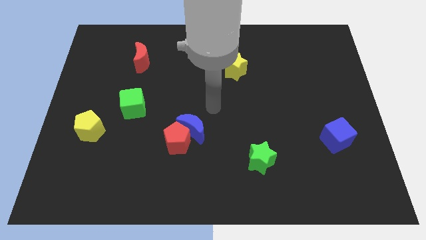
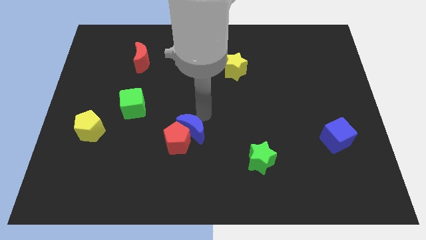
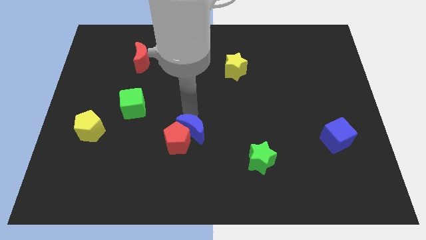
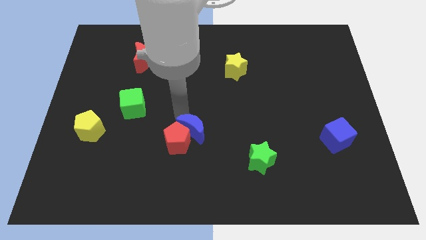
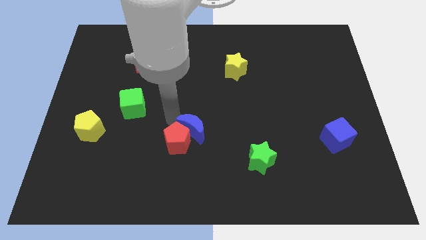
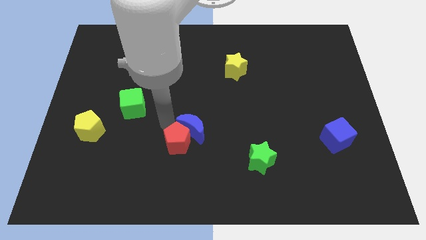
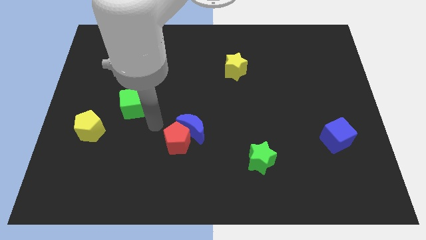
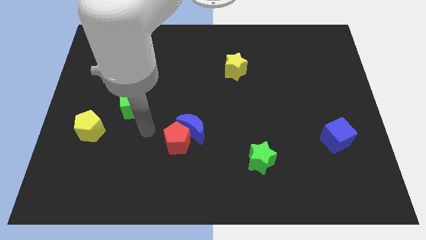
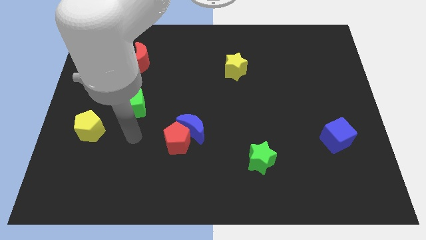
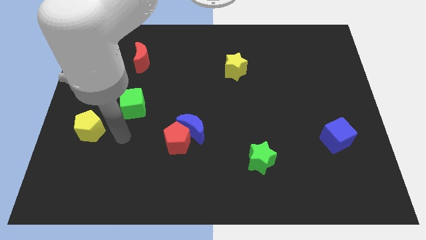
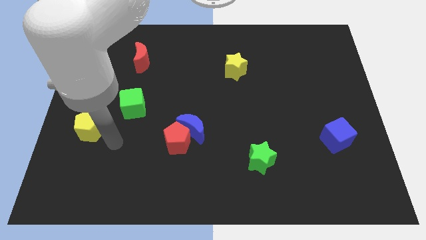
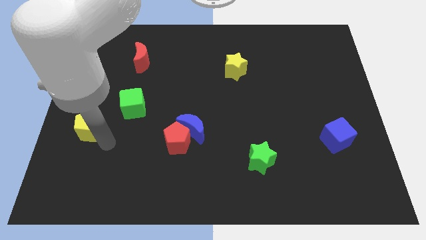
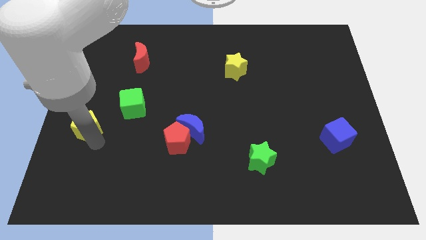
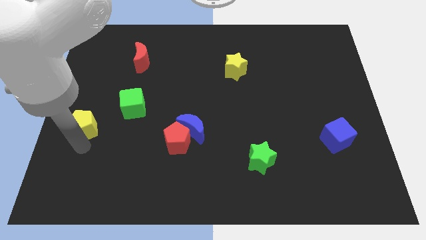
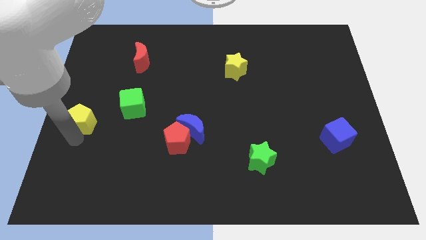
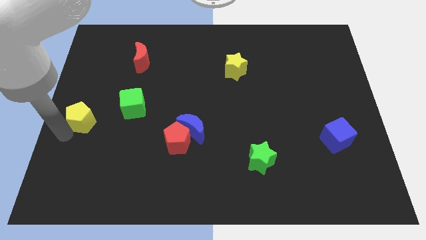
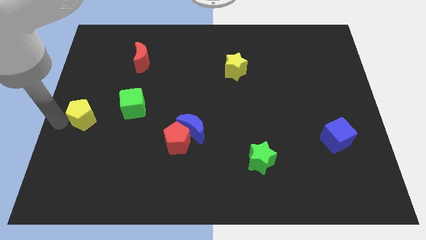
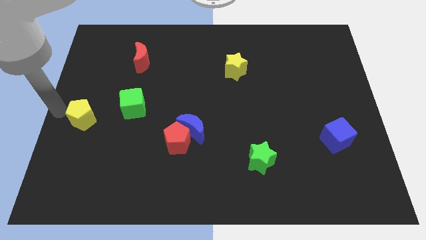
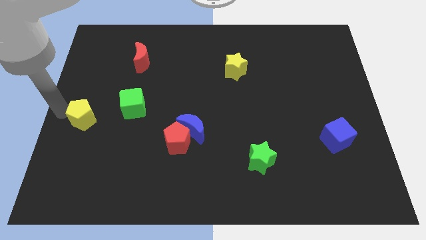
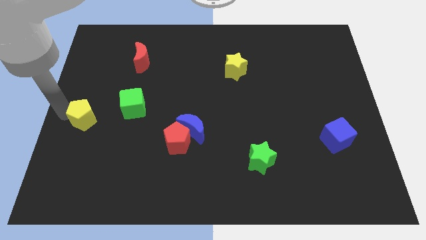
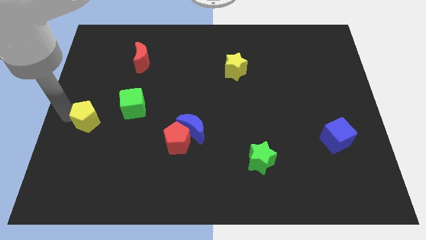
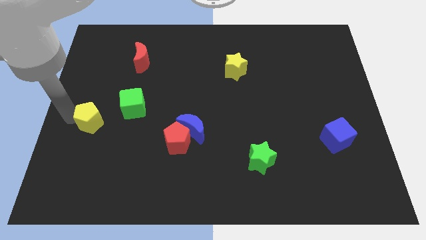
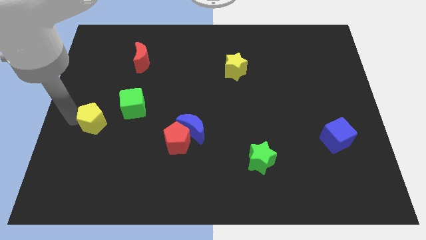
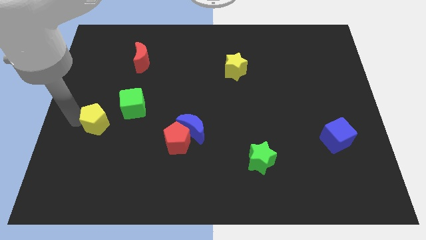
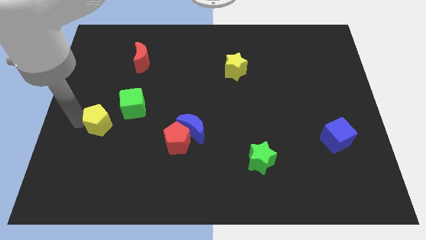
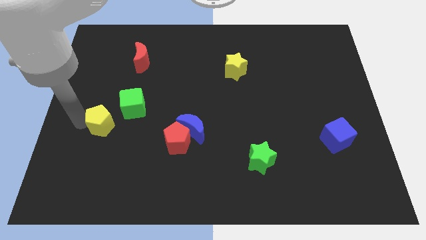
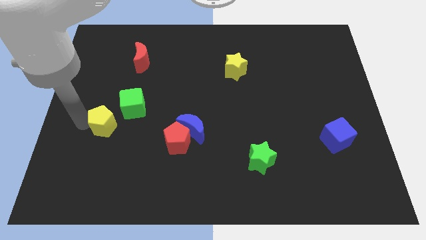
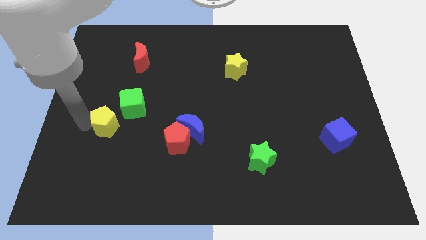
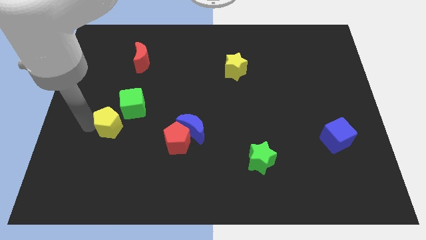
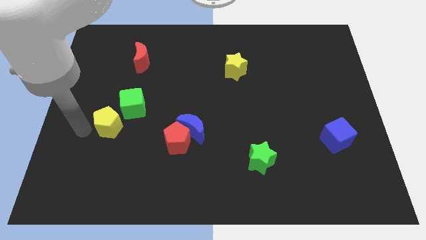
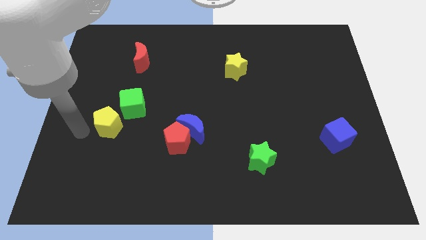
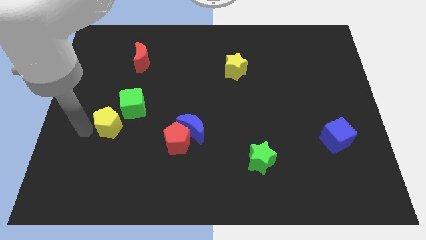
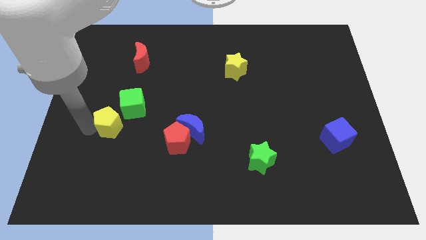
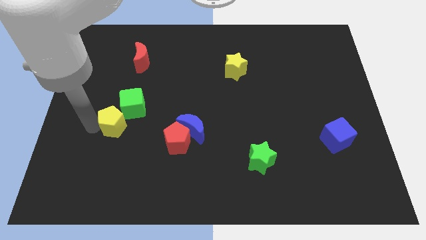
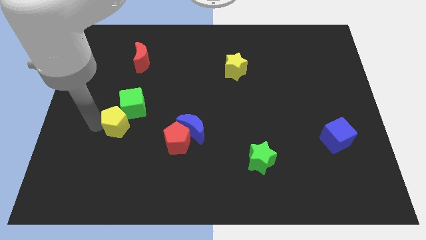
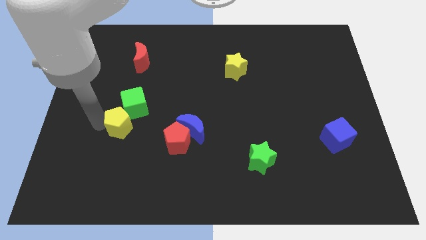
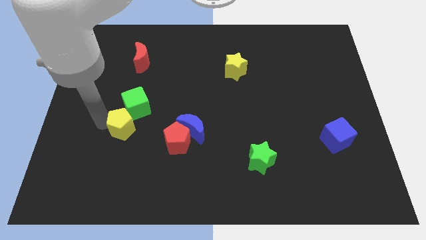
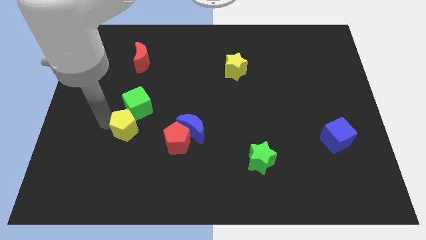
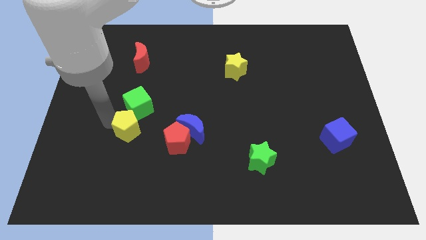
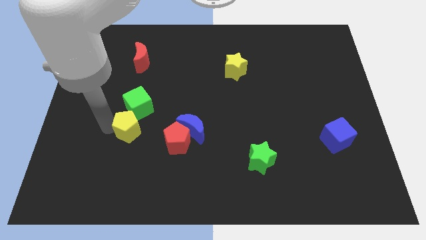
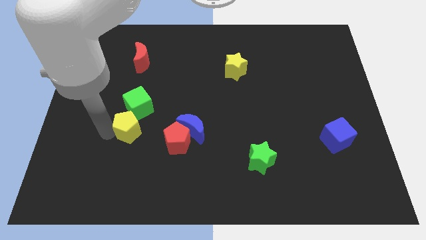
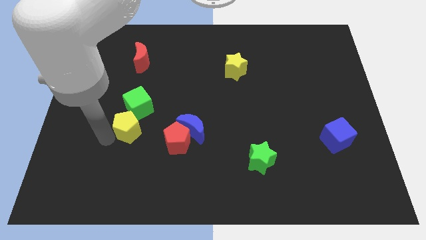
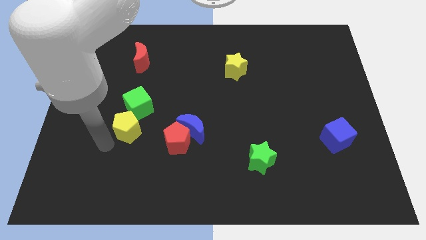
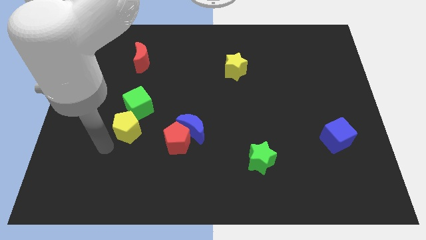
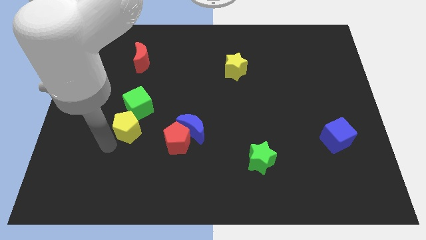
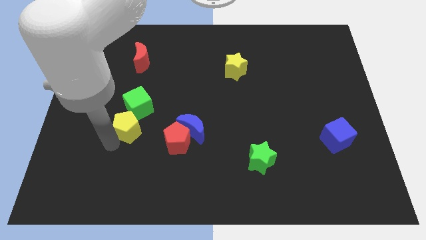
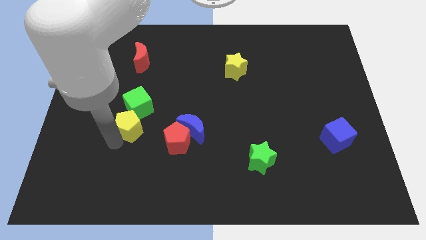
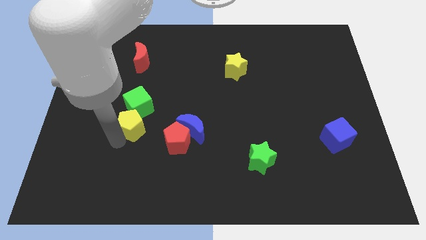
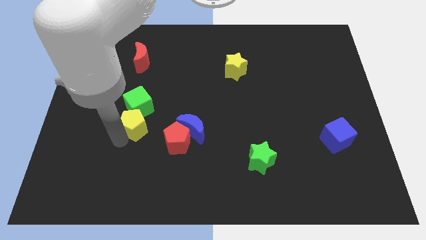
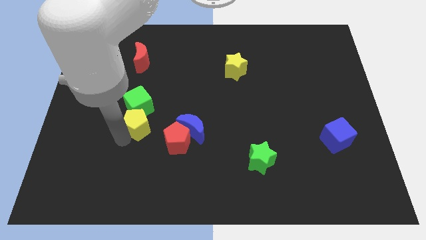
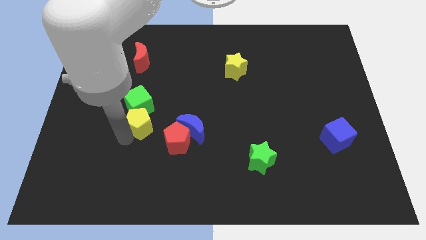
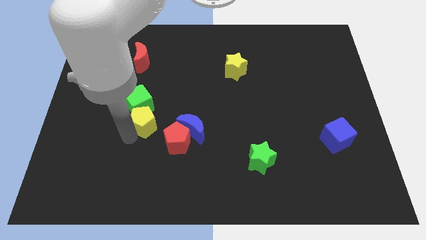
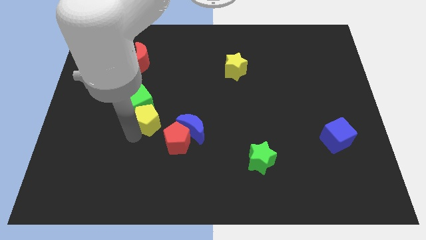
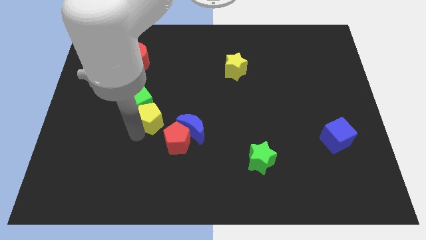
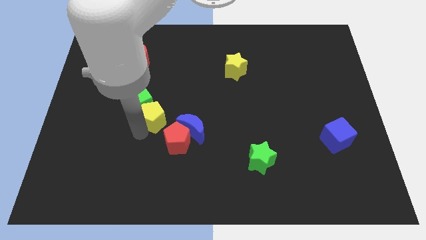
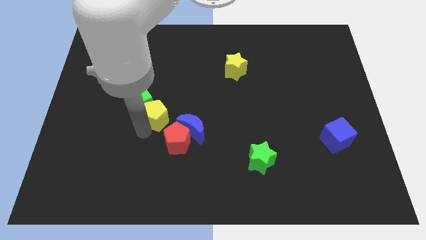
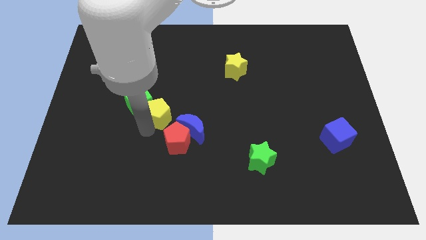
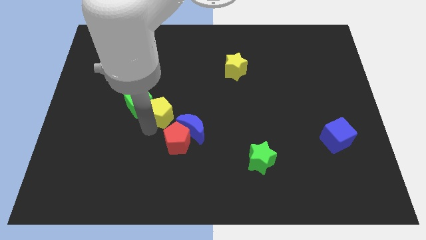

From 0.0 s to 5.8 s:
push the yellow pentagon to the middle
